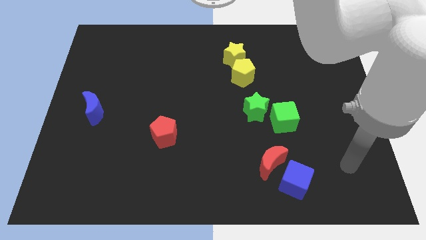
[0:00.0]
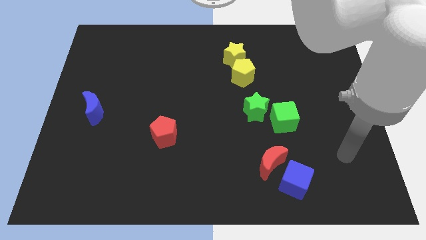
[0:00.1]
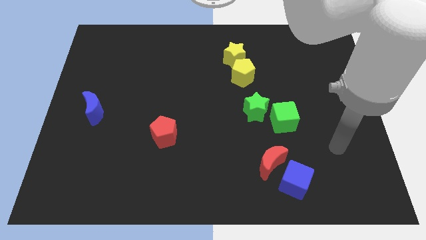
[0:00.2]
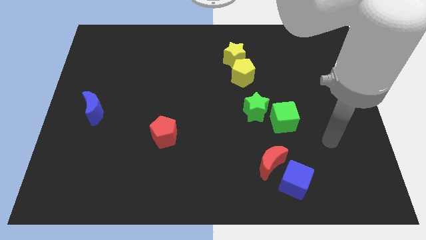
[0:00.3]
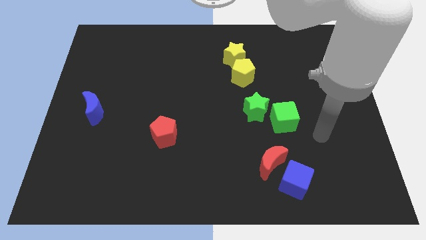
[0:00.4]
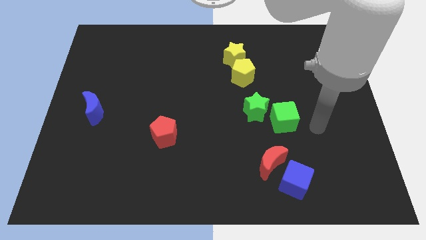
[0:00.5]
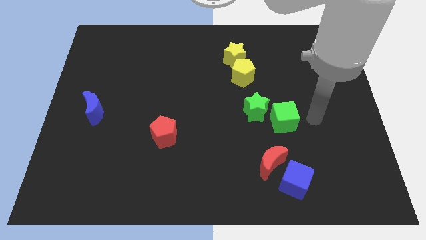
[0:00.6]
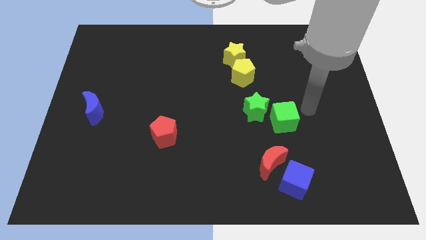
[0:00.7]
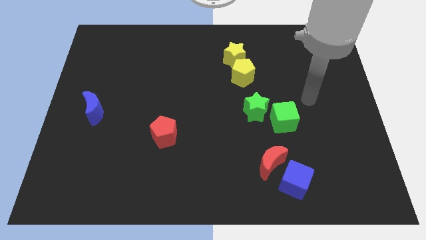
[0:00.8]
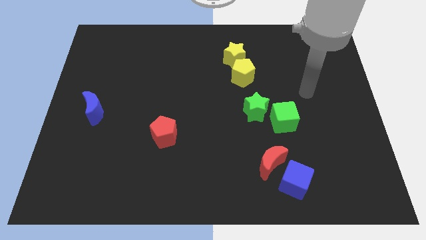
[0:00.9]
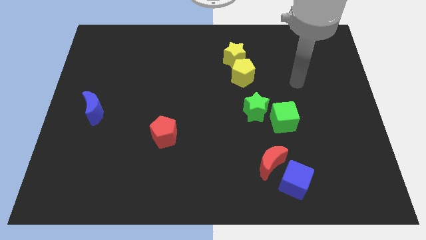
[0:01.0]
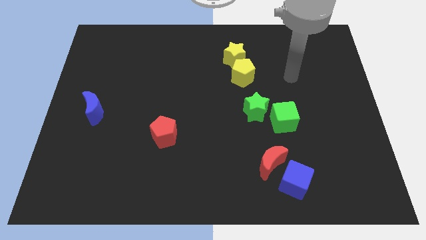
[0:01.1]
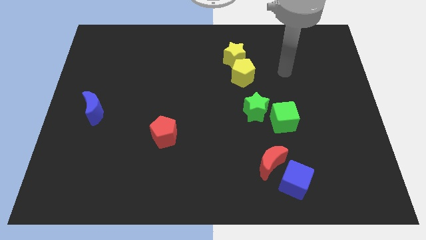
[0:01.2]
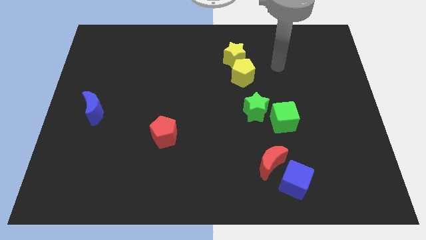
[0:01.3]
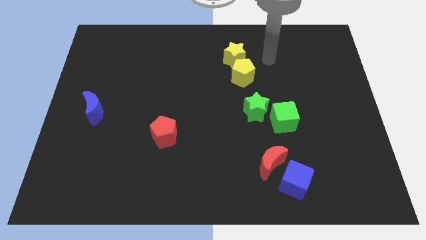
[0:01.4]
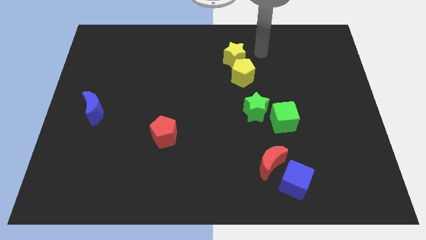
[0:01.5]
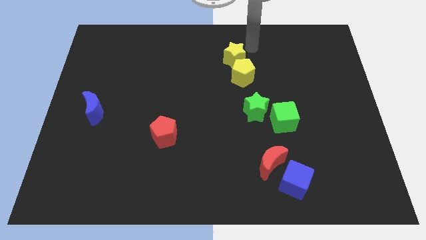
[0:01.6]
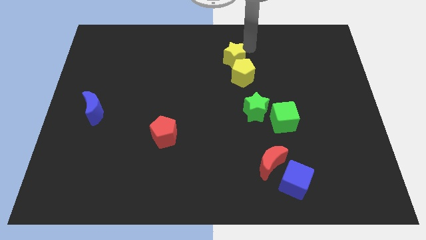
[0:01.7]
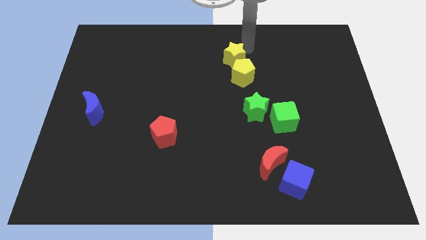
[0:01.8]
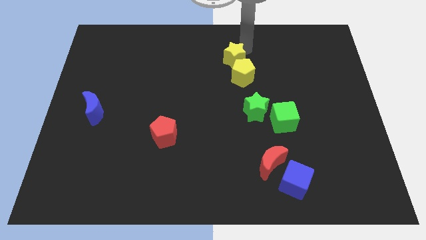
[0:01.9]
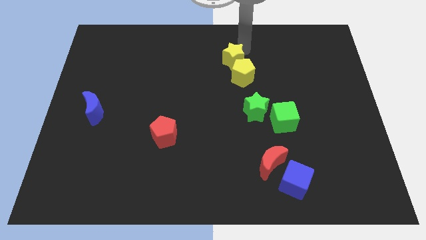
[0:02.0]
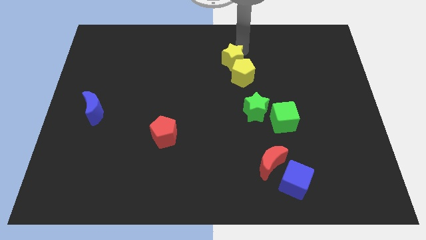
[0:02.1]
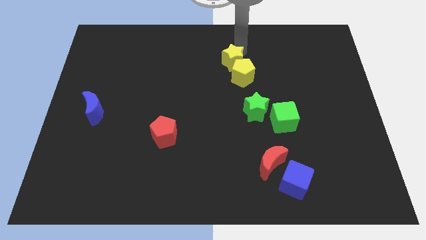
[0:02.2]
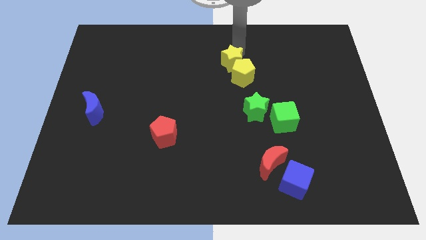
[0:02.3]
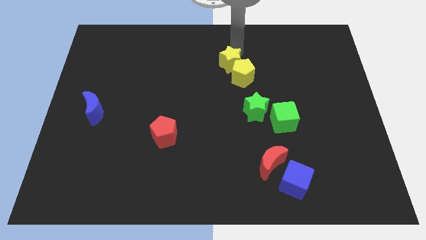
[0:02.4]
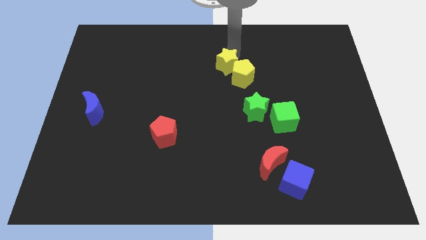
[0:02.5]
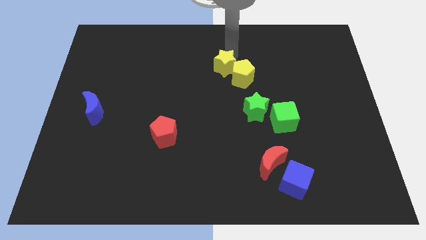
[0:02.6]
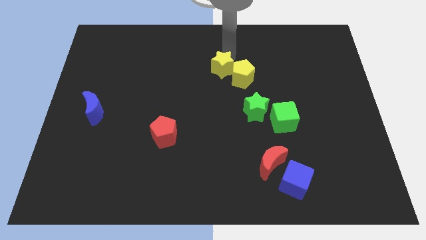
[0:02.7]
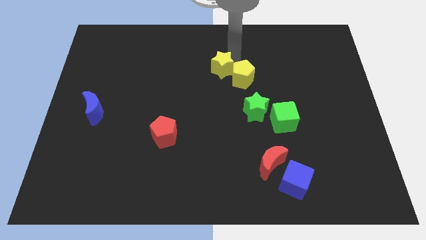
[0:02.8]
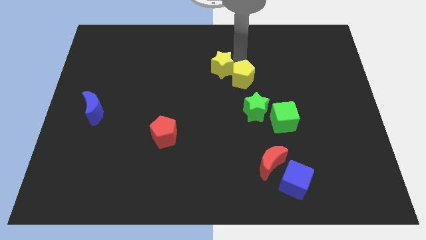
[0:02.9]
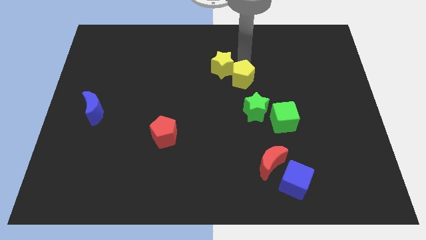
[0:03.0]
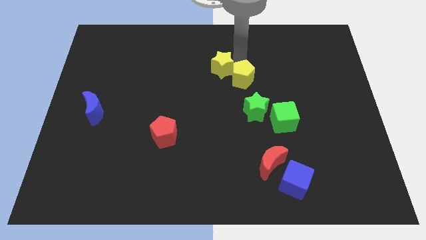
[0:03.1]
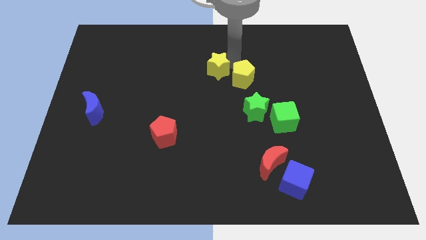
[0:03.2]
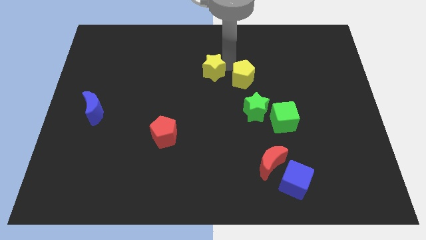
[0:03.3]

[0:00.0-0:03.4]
move the yellow star a little diagonally down and to the left

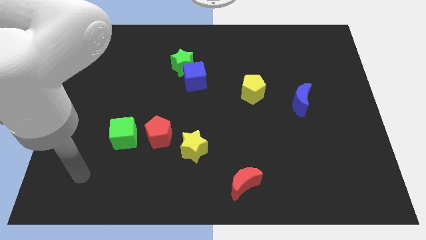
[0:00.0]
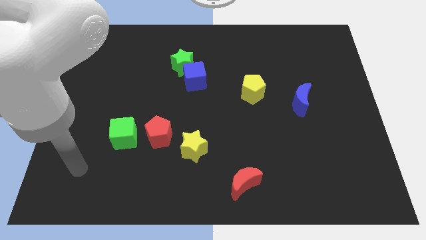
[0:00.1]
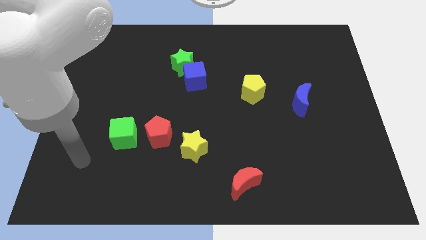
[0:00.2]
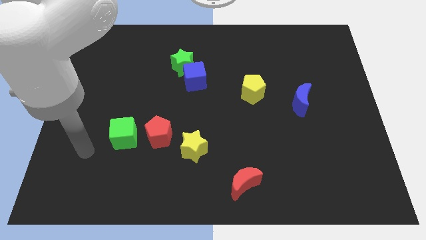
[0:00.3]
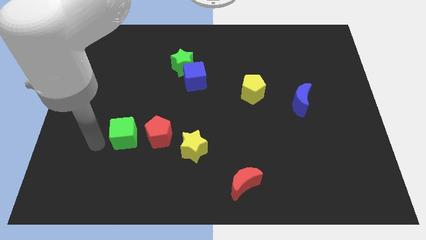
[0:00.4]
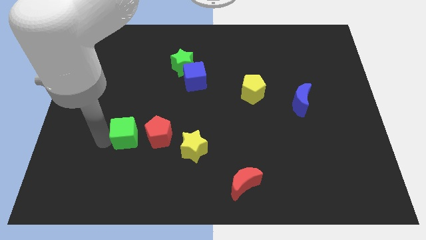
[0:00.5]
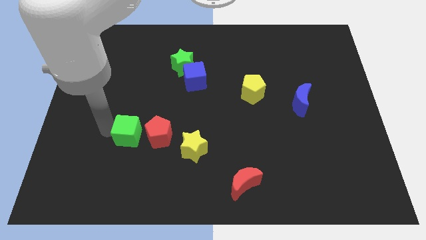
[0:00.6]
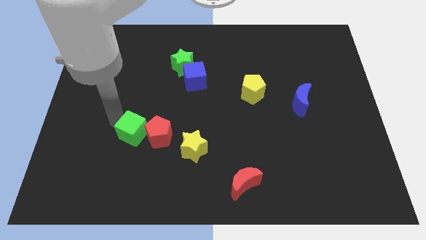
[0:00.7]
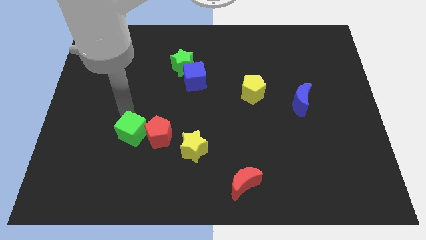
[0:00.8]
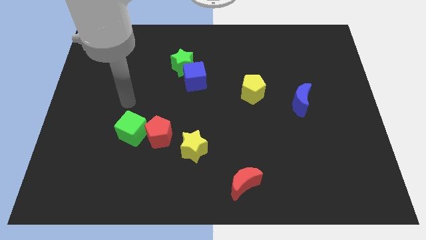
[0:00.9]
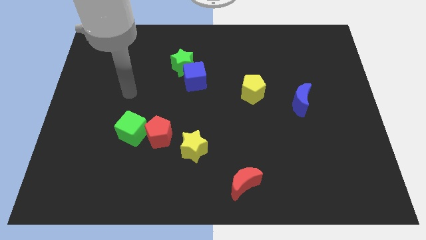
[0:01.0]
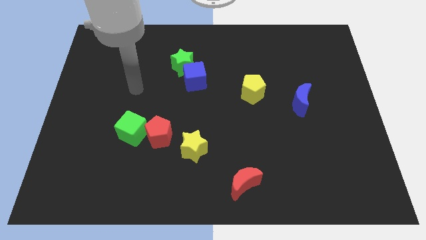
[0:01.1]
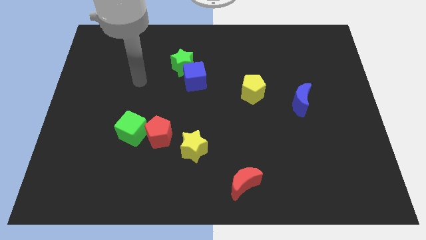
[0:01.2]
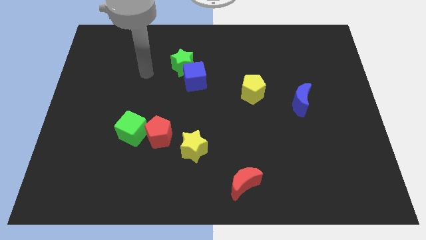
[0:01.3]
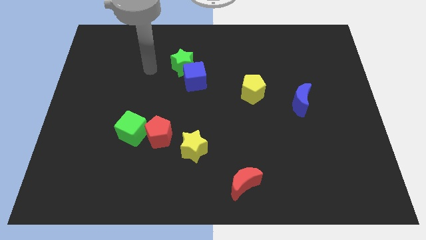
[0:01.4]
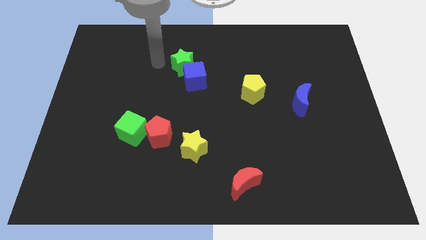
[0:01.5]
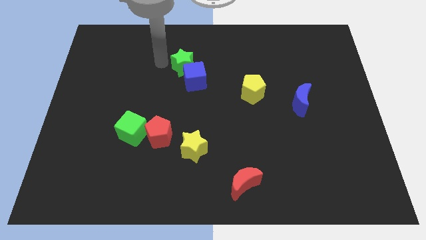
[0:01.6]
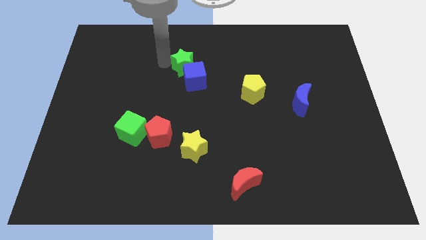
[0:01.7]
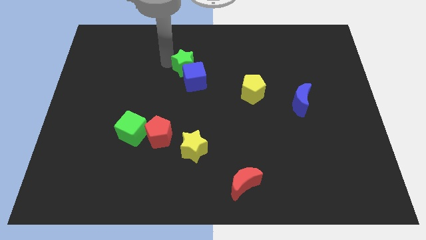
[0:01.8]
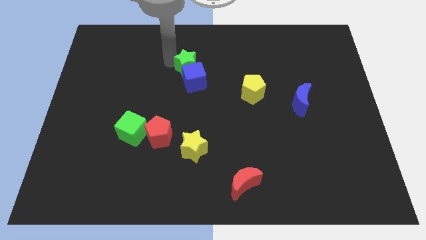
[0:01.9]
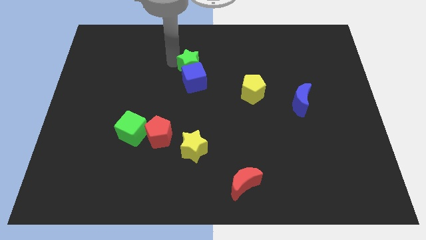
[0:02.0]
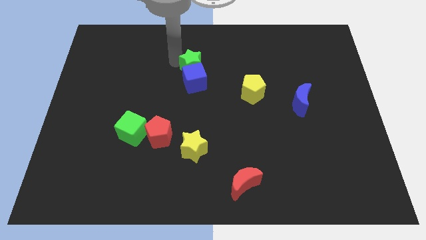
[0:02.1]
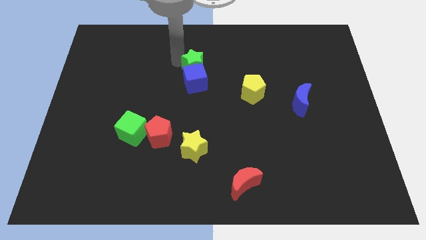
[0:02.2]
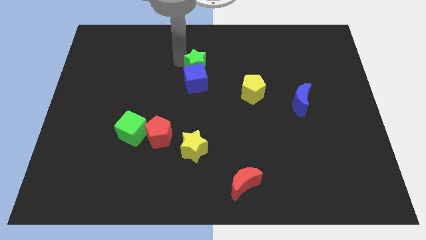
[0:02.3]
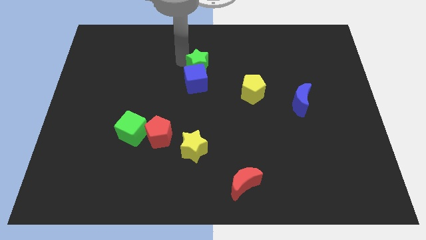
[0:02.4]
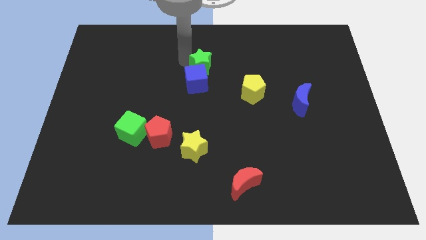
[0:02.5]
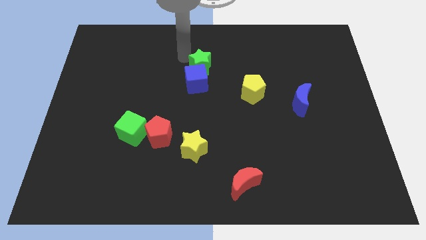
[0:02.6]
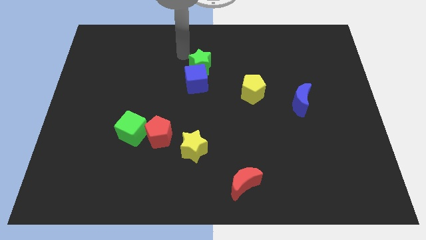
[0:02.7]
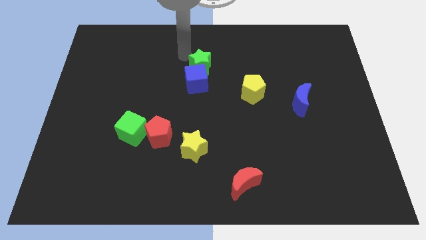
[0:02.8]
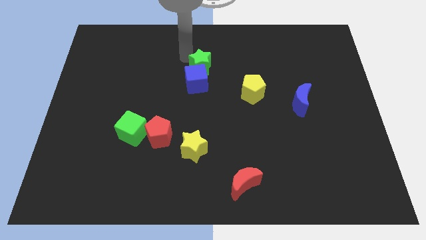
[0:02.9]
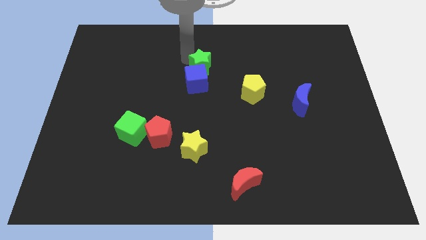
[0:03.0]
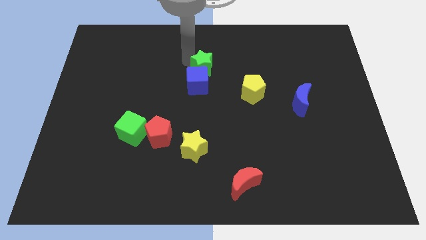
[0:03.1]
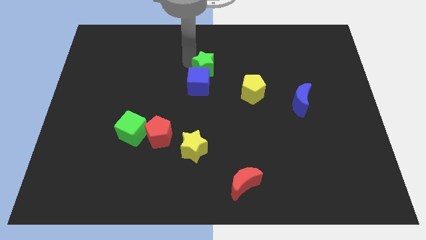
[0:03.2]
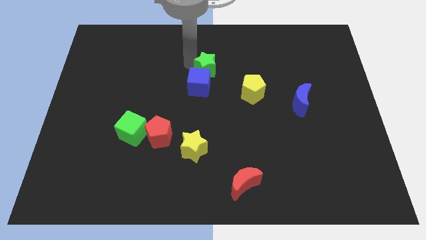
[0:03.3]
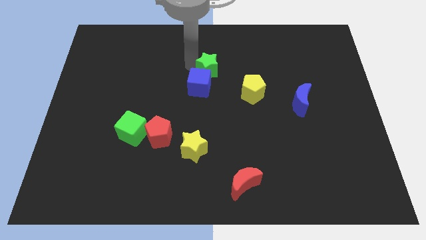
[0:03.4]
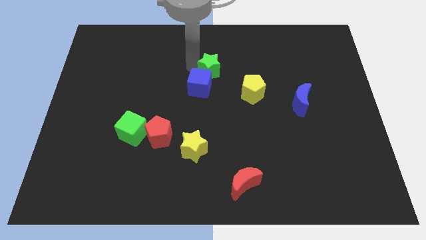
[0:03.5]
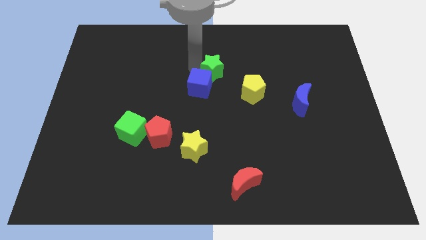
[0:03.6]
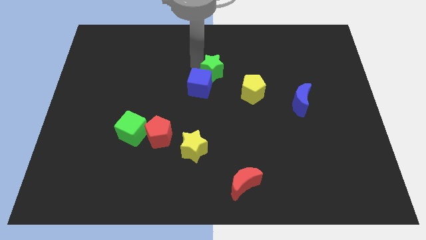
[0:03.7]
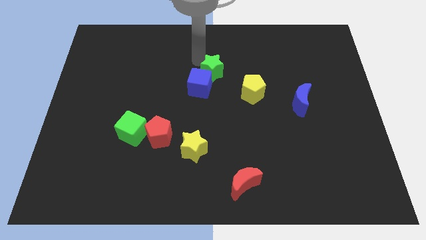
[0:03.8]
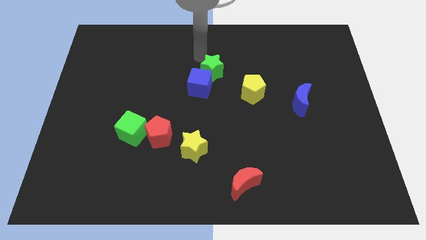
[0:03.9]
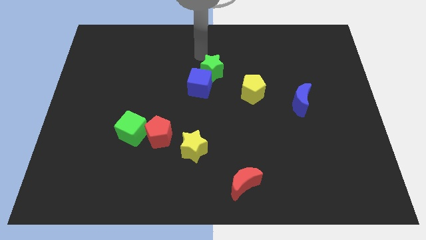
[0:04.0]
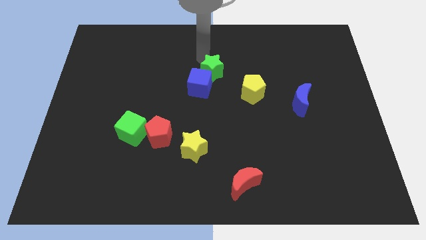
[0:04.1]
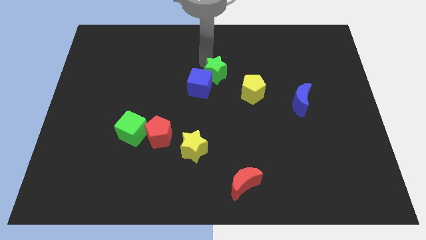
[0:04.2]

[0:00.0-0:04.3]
push the green star downwards and right diagonally somewhat

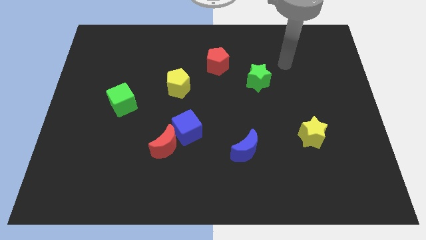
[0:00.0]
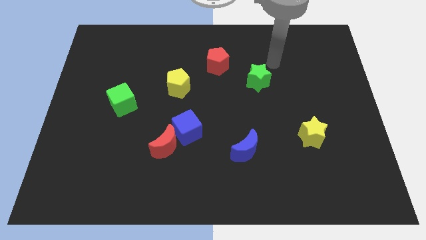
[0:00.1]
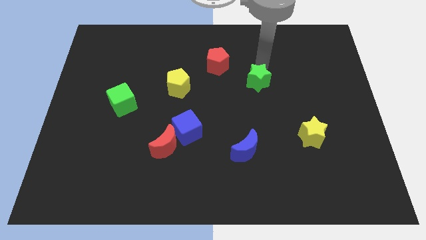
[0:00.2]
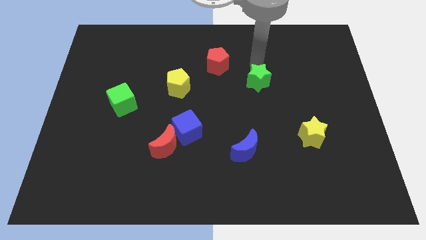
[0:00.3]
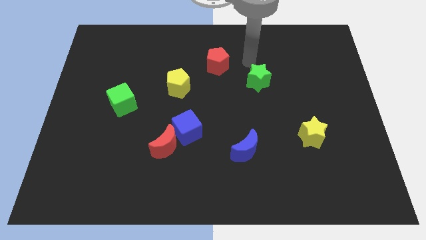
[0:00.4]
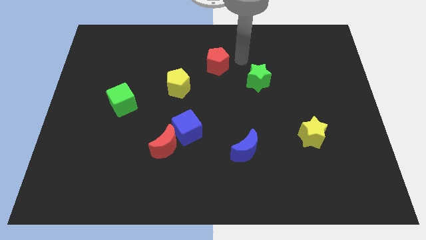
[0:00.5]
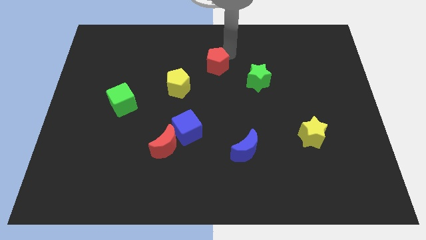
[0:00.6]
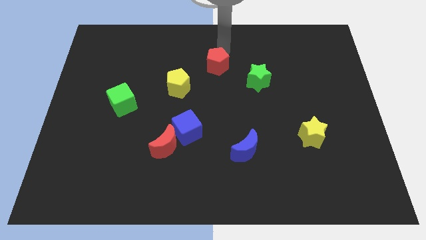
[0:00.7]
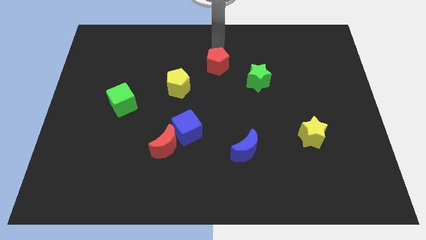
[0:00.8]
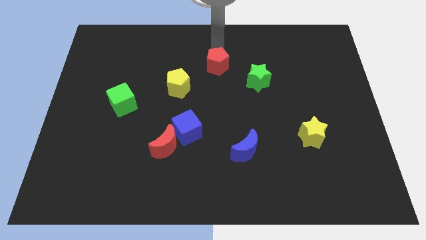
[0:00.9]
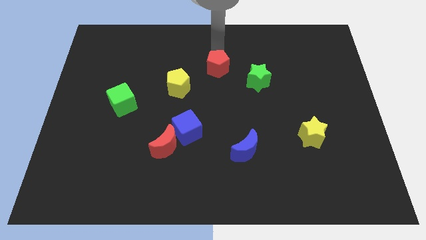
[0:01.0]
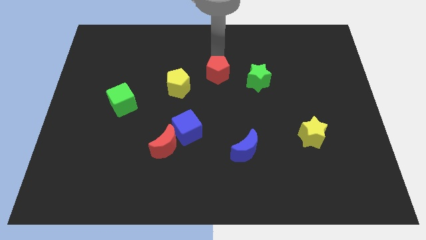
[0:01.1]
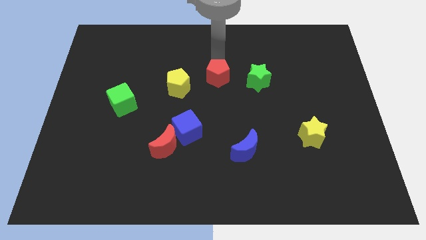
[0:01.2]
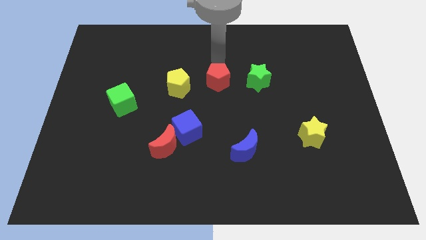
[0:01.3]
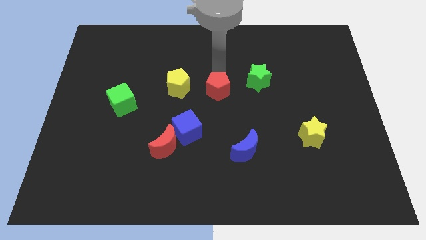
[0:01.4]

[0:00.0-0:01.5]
slightly move the red pentagon down
